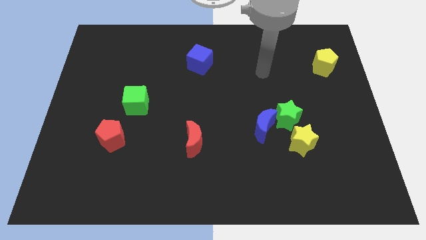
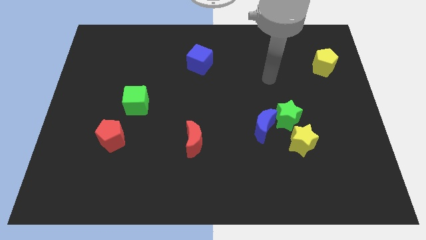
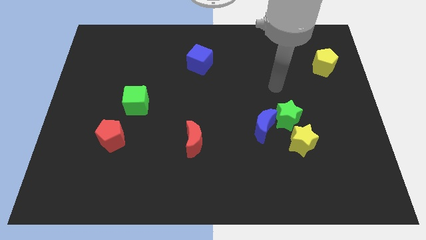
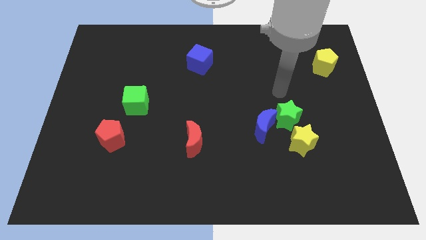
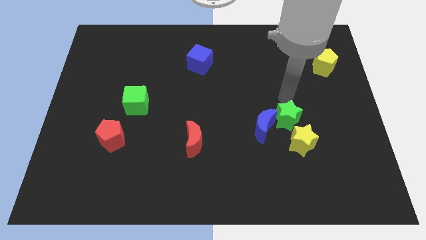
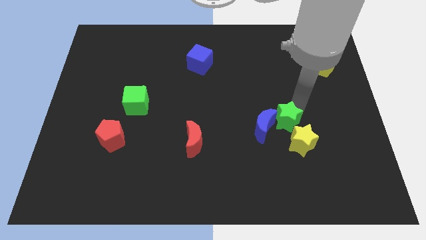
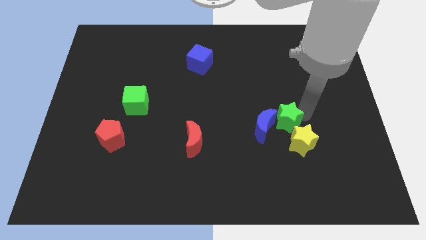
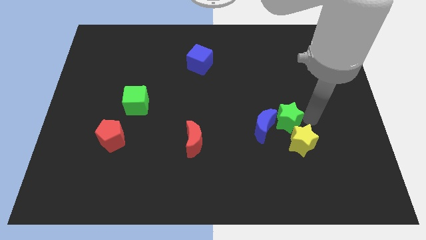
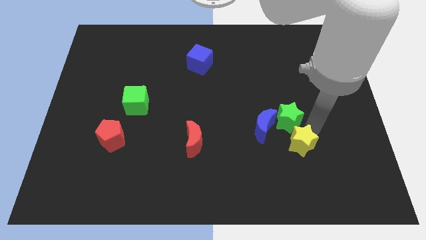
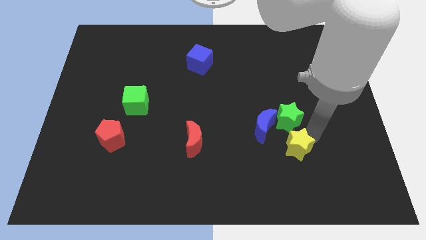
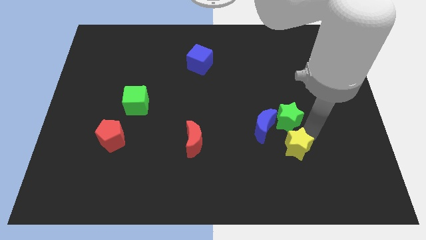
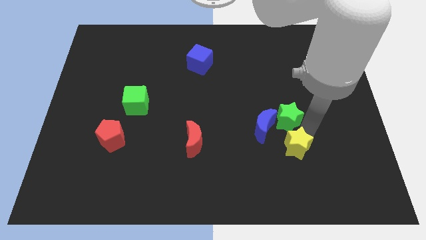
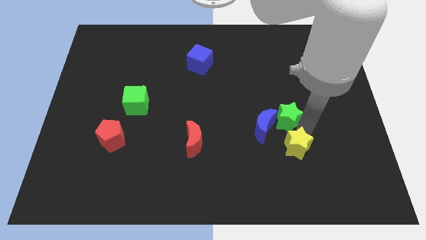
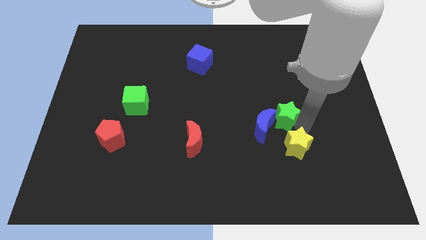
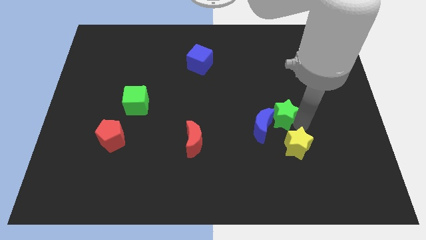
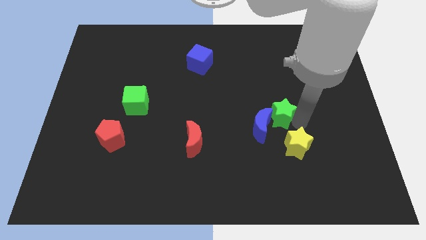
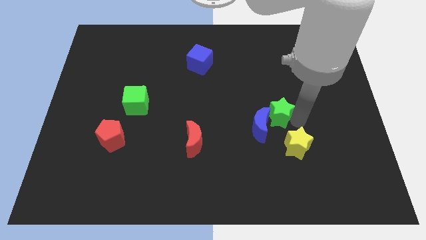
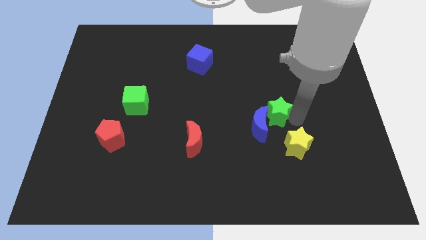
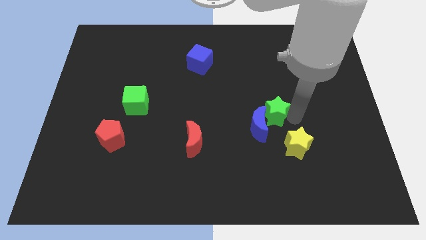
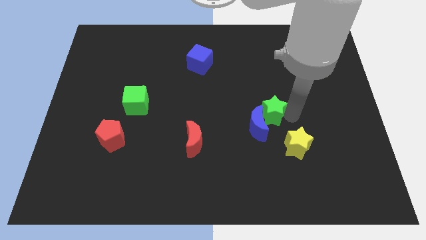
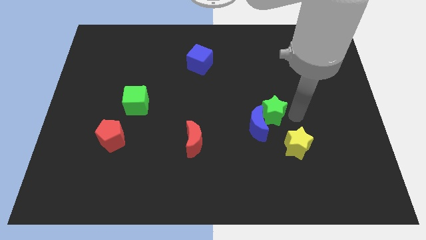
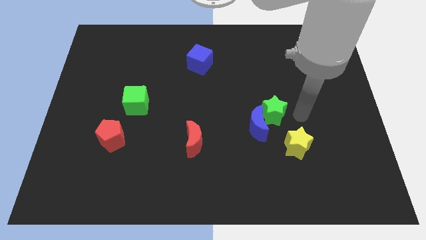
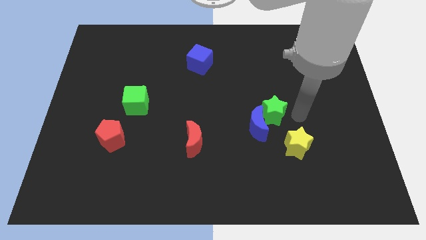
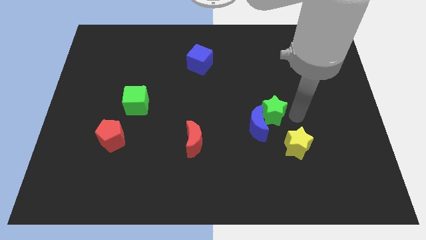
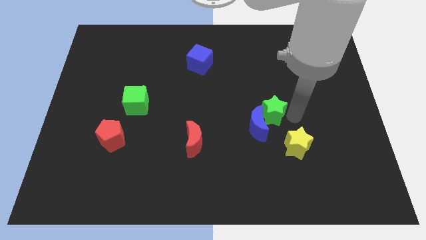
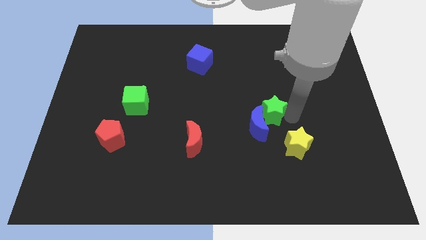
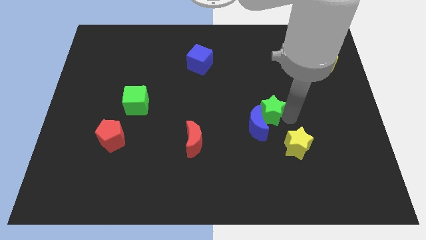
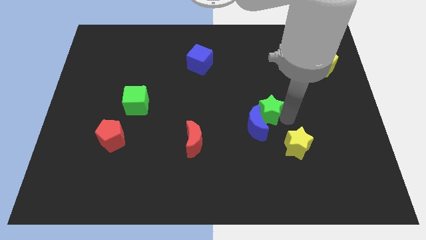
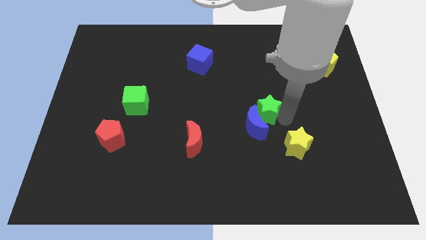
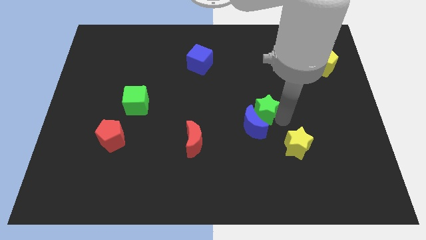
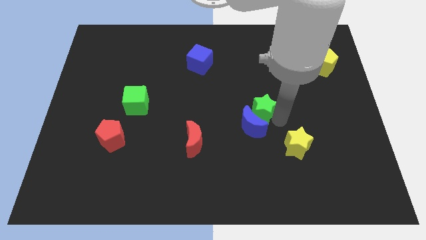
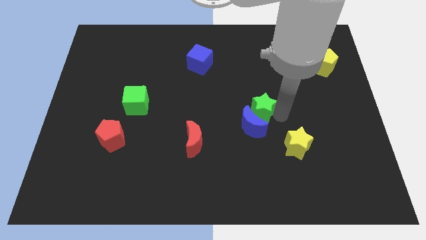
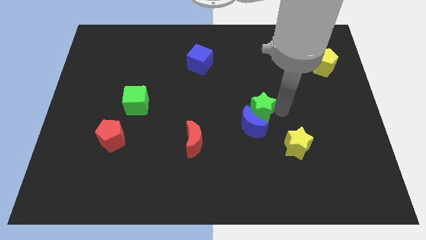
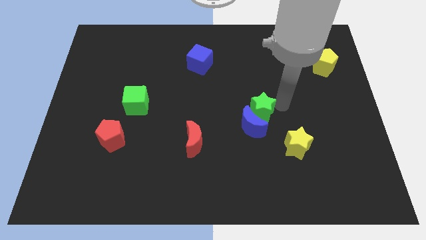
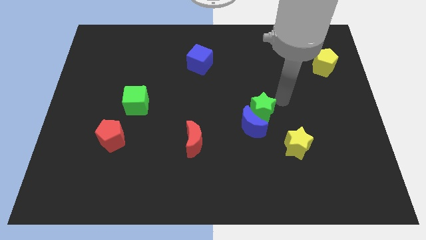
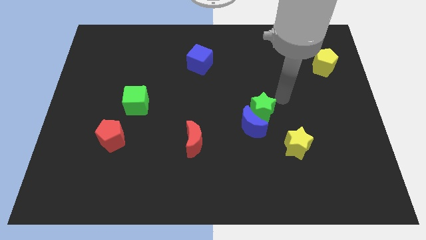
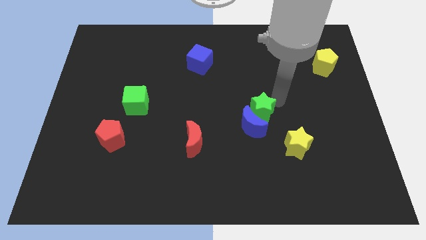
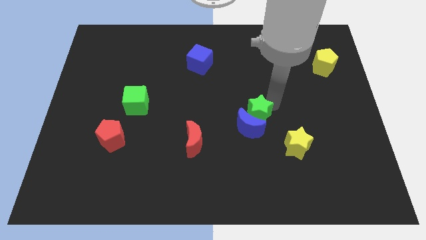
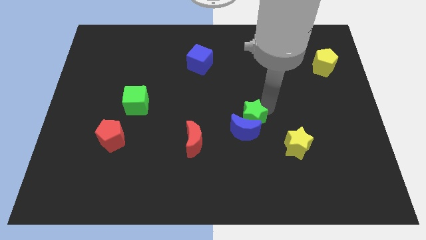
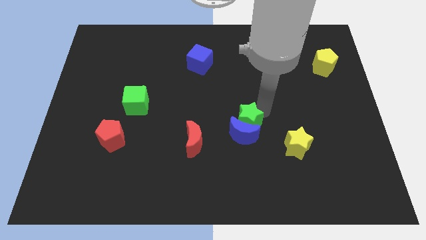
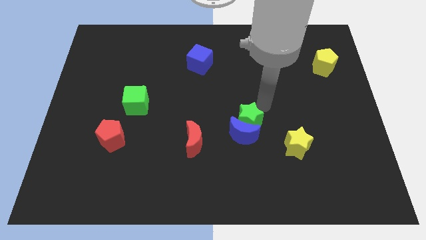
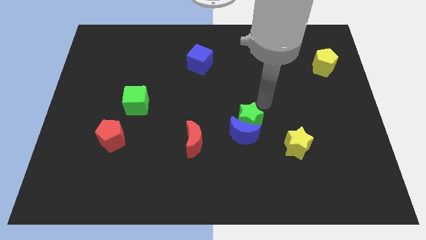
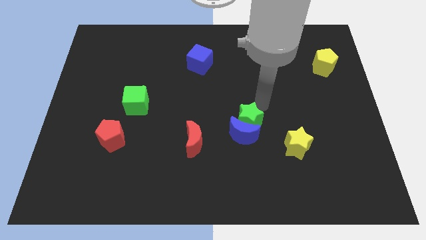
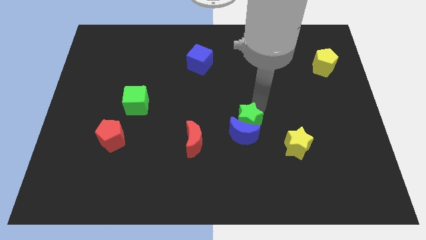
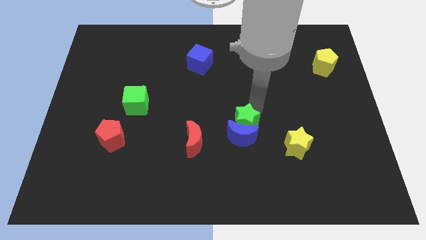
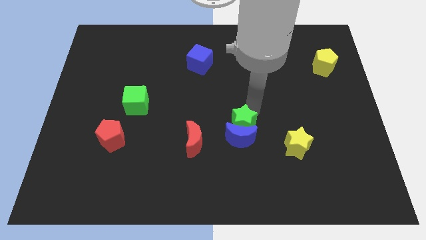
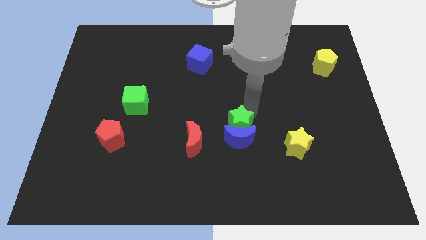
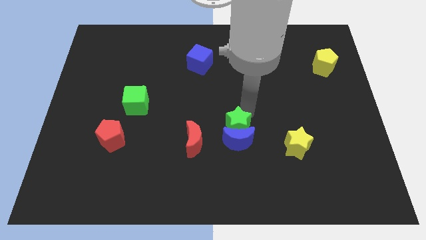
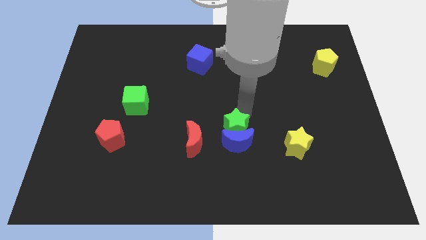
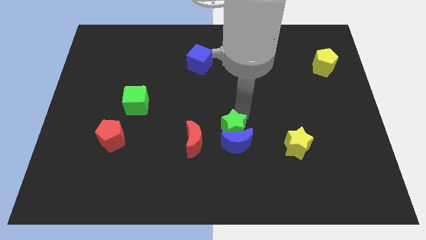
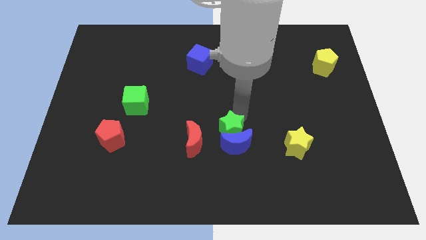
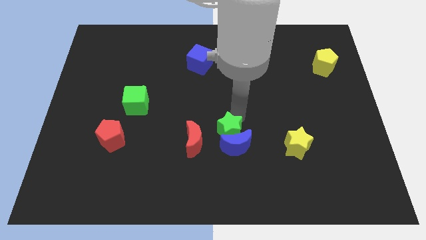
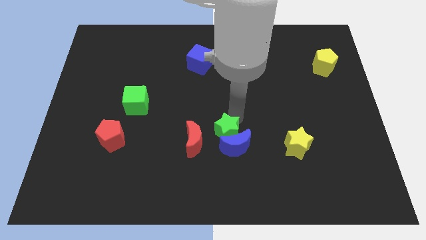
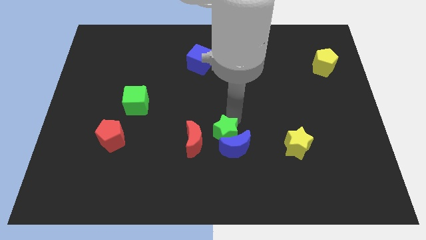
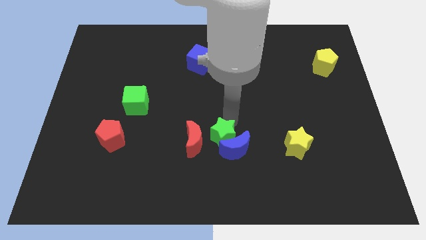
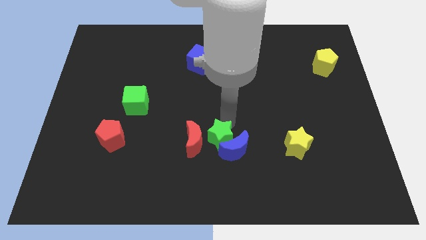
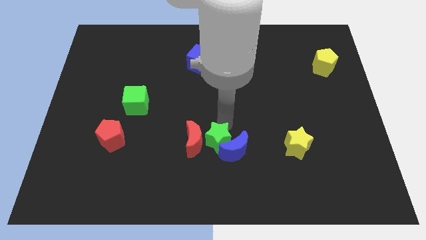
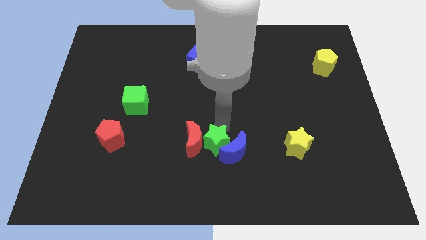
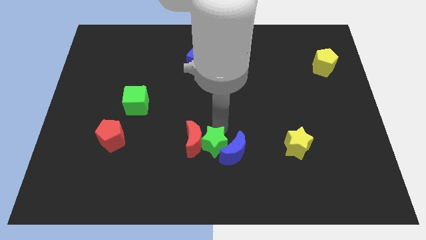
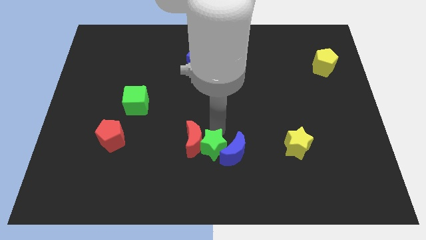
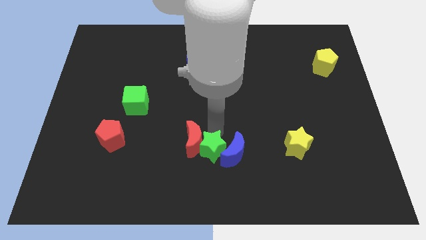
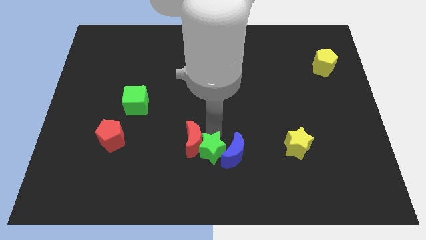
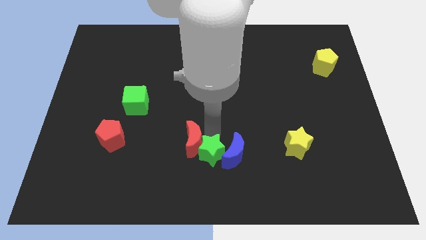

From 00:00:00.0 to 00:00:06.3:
move the green star to the bottom side
